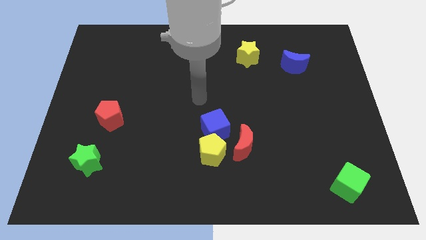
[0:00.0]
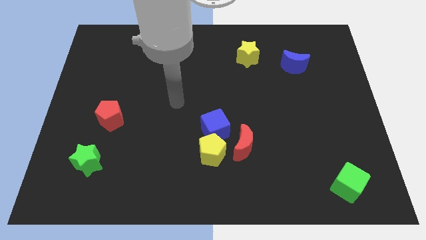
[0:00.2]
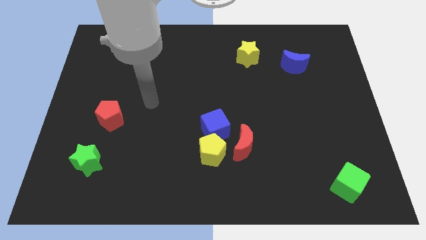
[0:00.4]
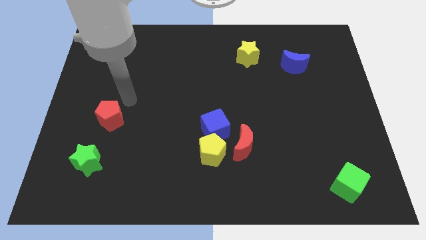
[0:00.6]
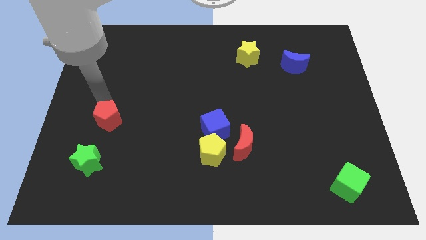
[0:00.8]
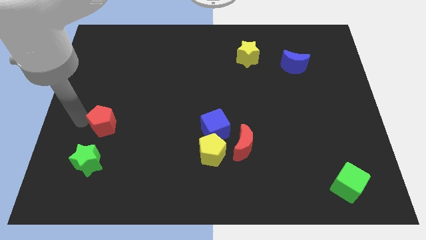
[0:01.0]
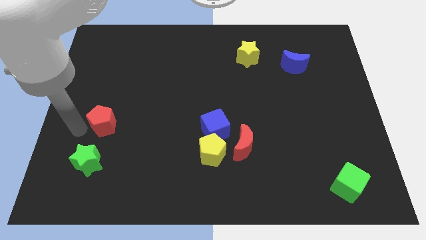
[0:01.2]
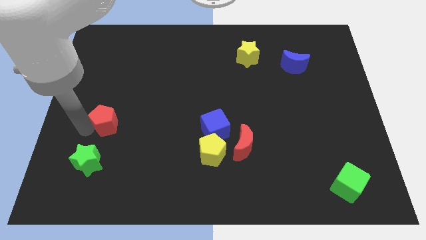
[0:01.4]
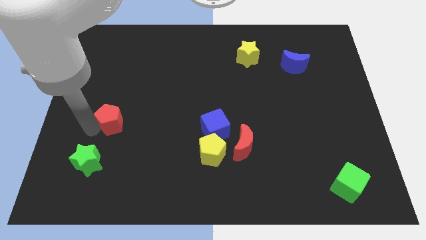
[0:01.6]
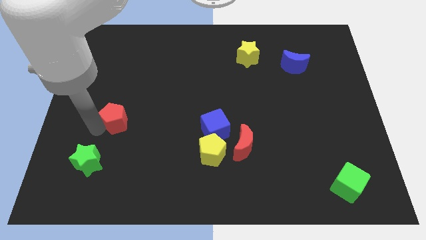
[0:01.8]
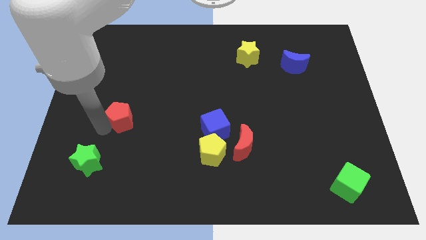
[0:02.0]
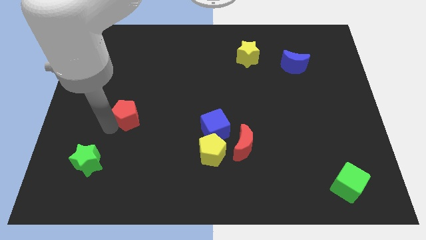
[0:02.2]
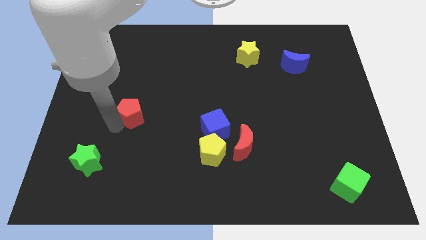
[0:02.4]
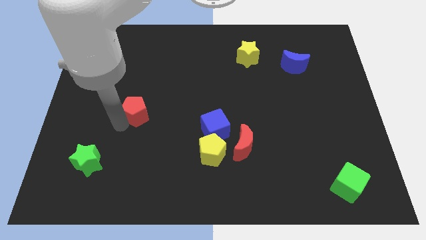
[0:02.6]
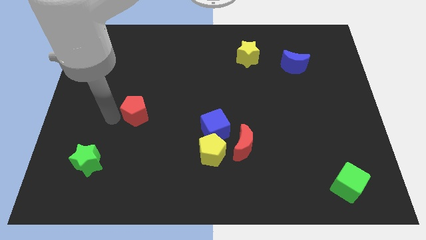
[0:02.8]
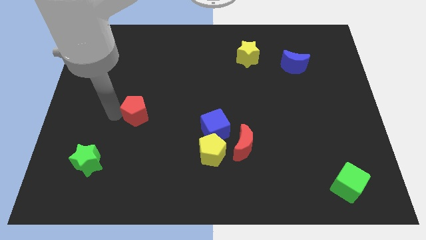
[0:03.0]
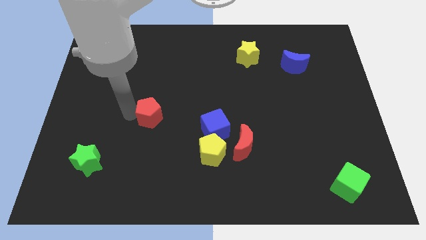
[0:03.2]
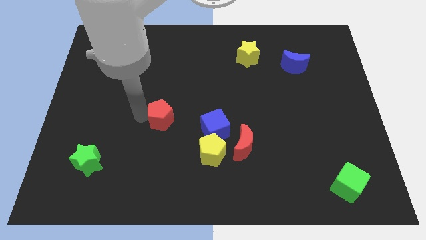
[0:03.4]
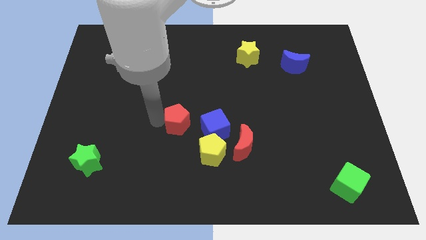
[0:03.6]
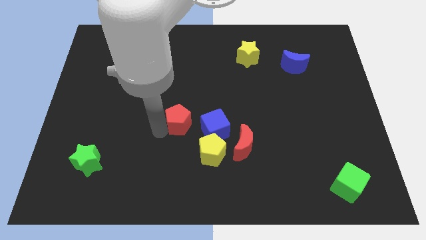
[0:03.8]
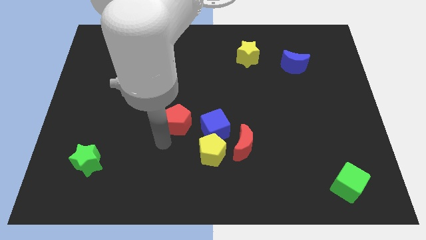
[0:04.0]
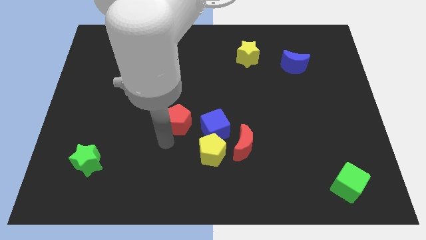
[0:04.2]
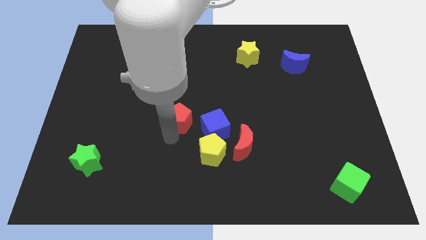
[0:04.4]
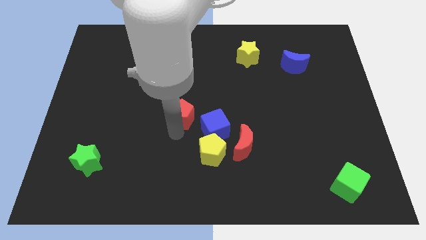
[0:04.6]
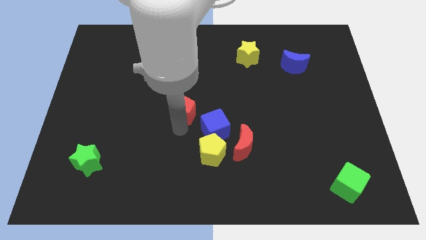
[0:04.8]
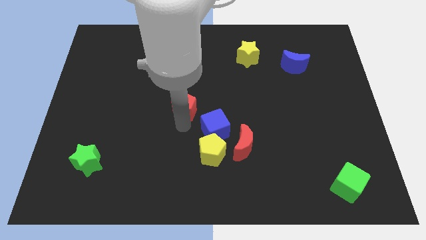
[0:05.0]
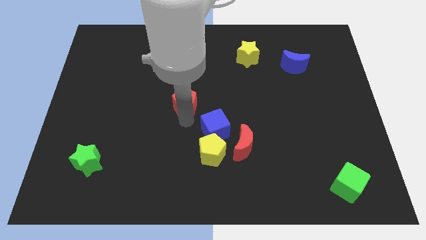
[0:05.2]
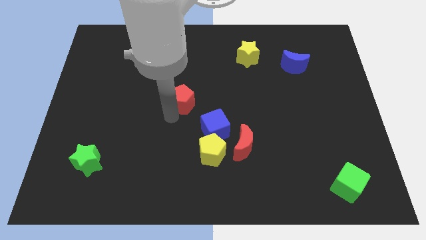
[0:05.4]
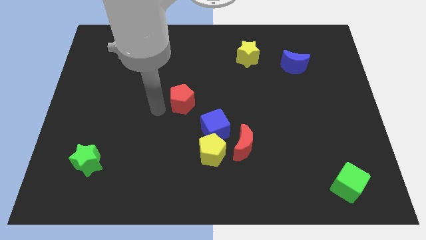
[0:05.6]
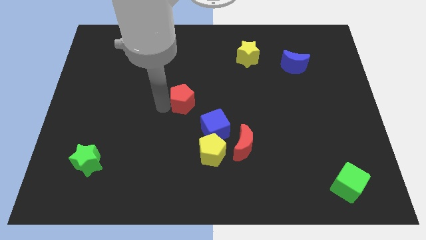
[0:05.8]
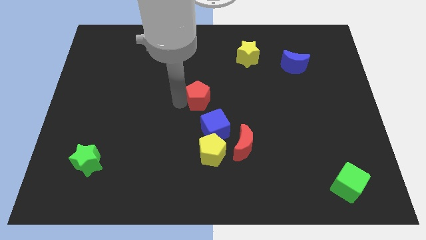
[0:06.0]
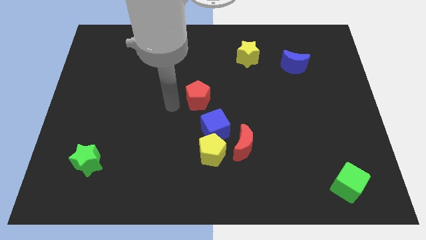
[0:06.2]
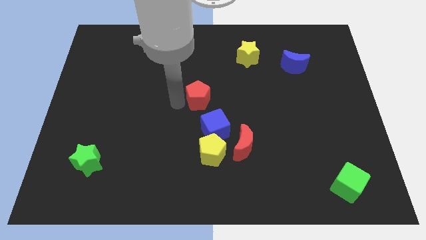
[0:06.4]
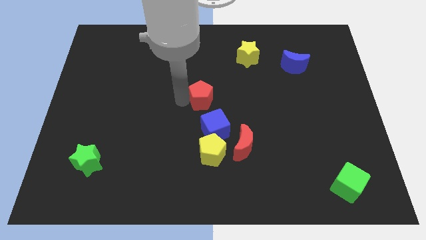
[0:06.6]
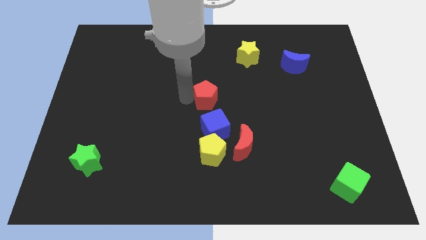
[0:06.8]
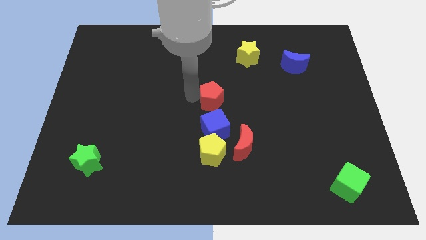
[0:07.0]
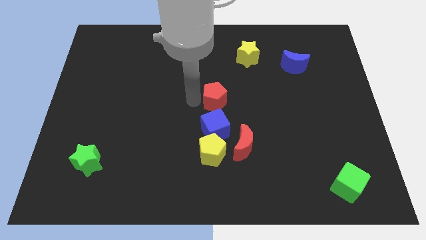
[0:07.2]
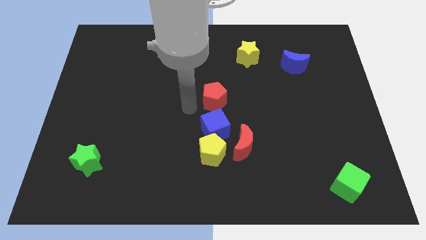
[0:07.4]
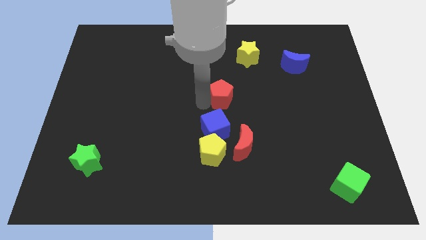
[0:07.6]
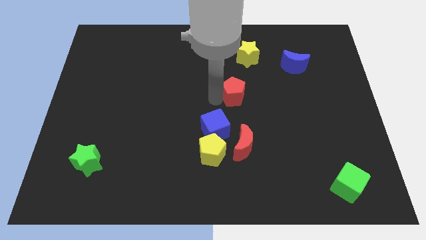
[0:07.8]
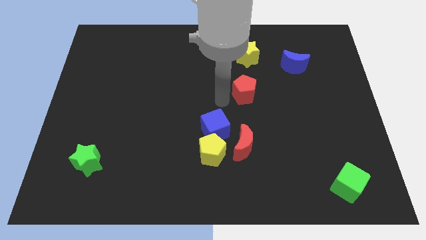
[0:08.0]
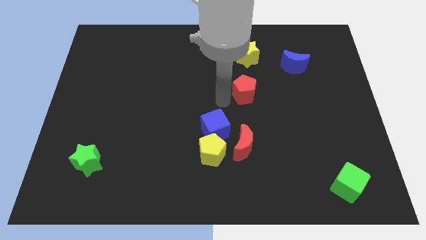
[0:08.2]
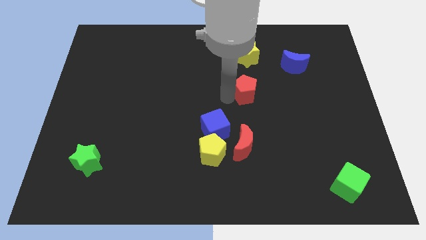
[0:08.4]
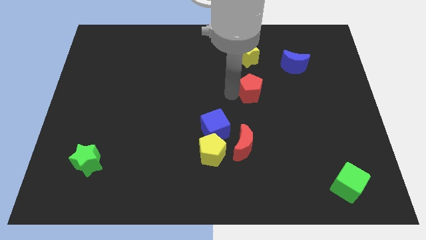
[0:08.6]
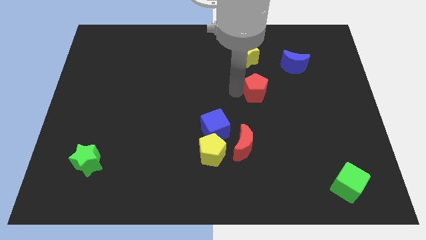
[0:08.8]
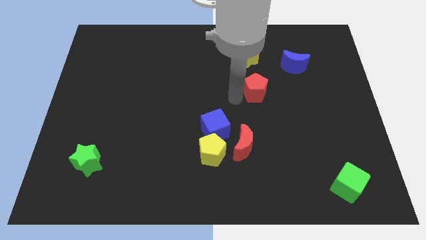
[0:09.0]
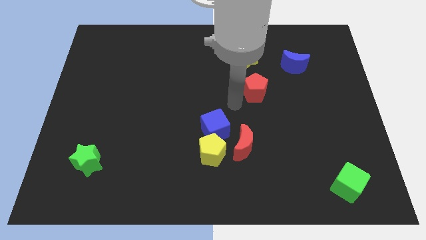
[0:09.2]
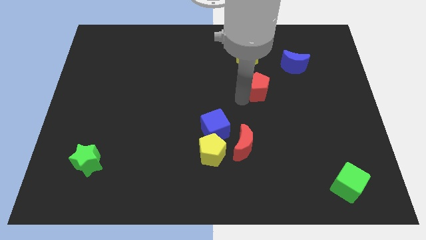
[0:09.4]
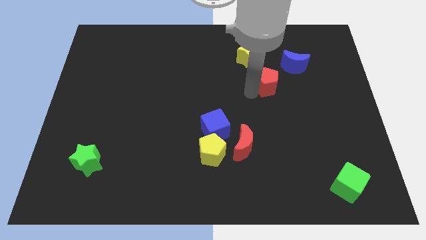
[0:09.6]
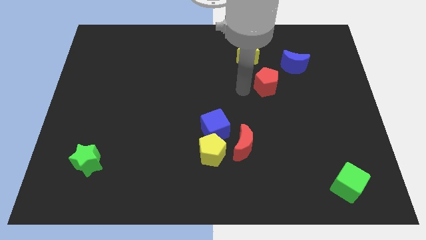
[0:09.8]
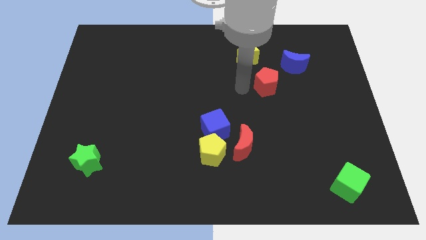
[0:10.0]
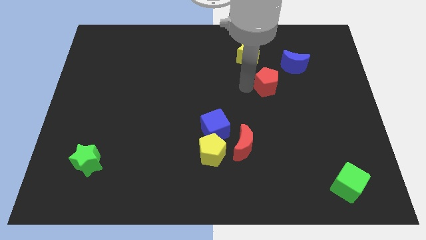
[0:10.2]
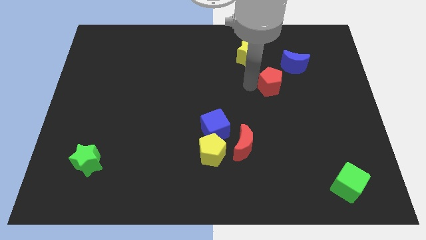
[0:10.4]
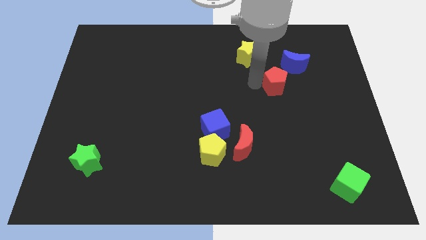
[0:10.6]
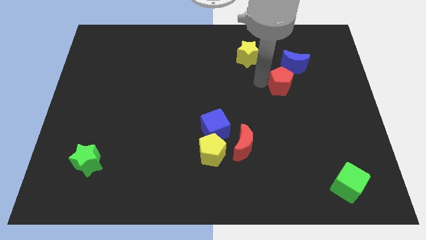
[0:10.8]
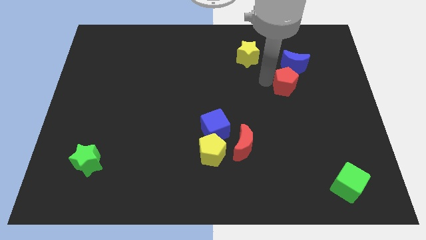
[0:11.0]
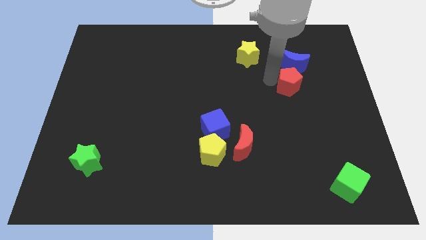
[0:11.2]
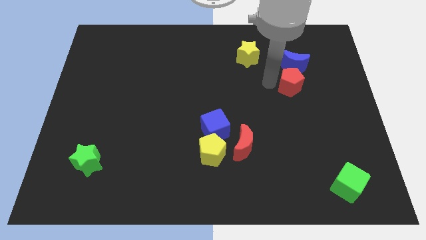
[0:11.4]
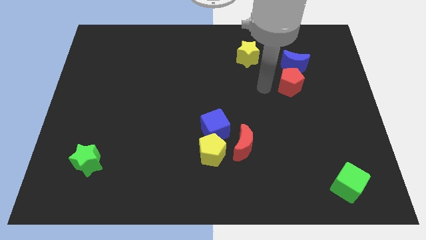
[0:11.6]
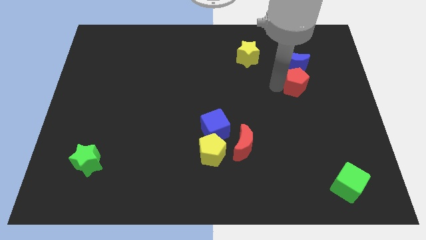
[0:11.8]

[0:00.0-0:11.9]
slide the red pentagon to the bottom right of the blue moon
